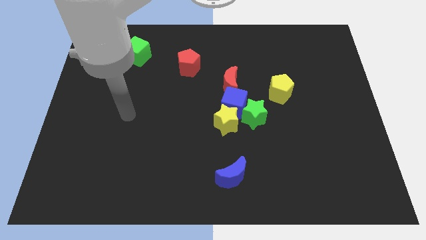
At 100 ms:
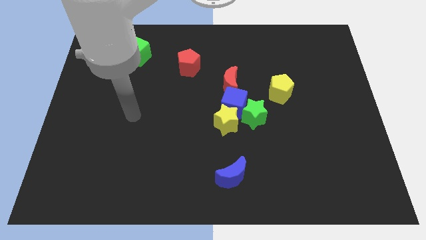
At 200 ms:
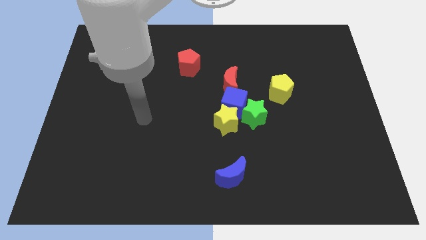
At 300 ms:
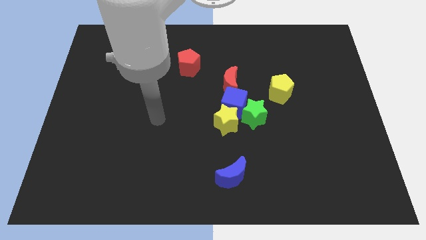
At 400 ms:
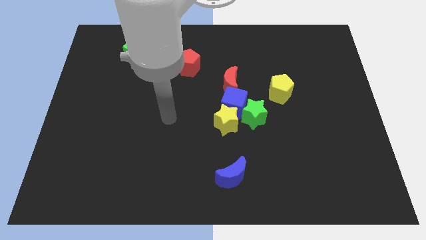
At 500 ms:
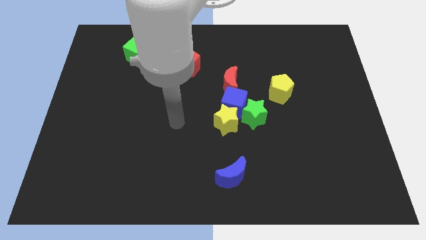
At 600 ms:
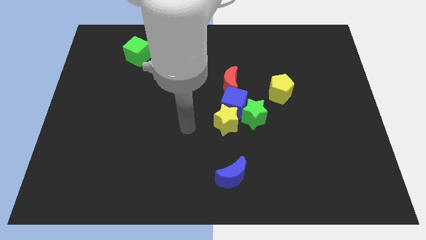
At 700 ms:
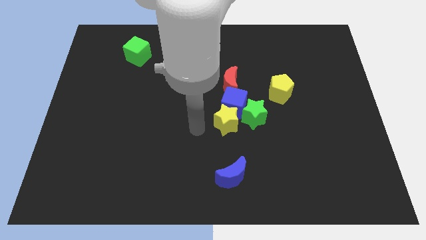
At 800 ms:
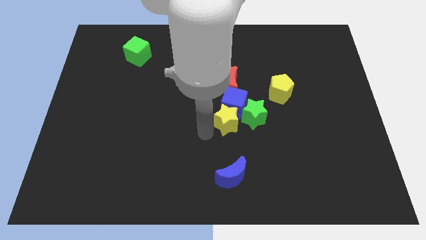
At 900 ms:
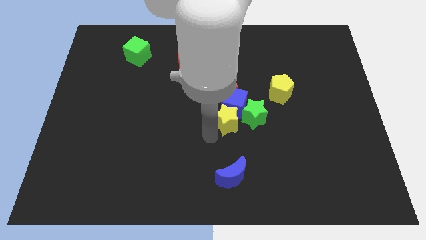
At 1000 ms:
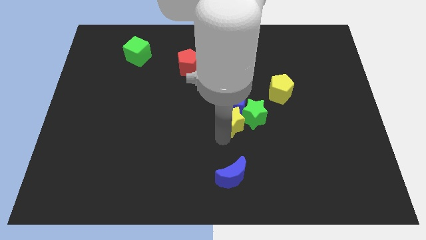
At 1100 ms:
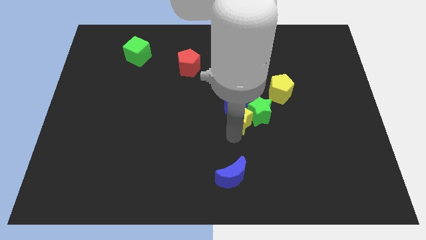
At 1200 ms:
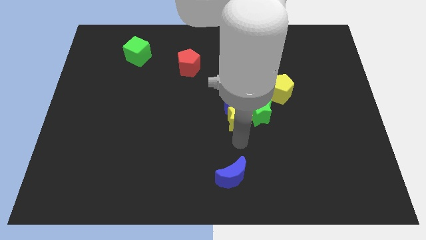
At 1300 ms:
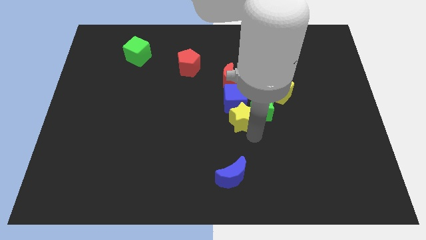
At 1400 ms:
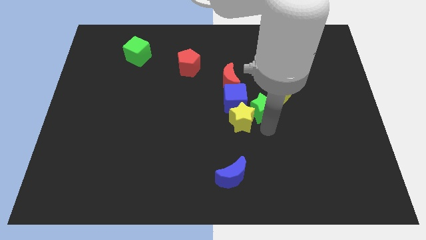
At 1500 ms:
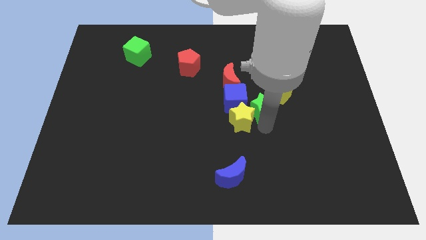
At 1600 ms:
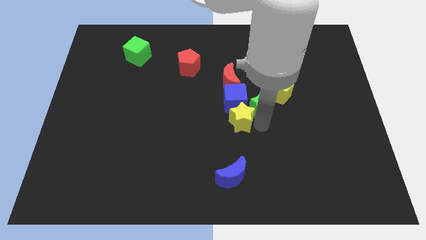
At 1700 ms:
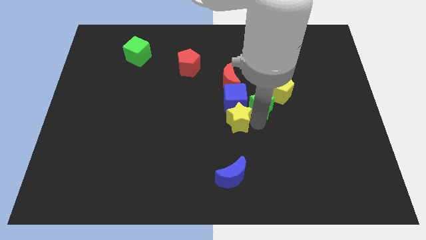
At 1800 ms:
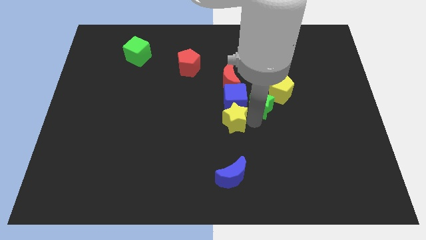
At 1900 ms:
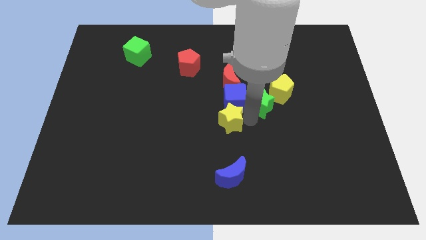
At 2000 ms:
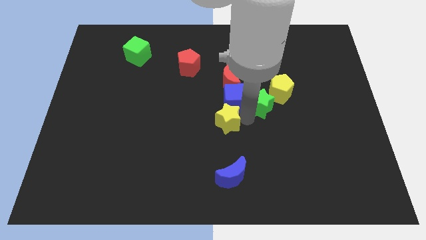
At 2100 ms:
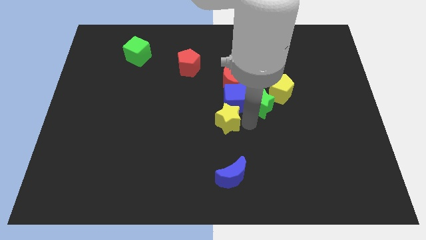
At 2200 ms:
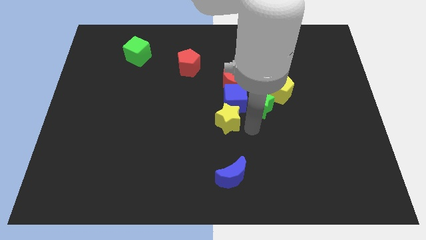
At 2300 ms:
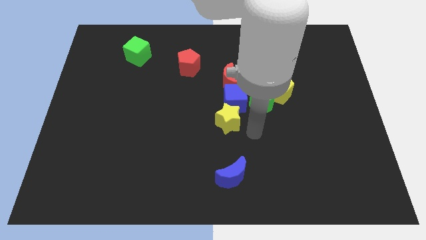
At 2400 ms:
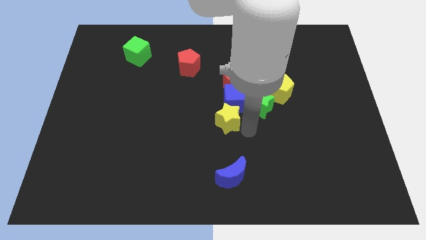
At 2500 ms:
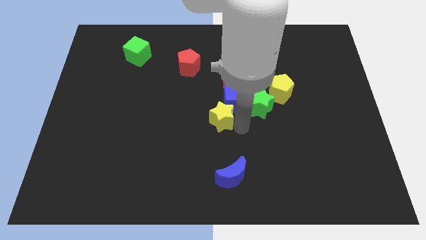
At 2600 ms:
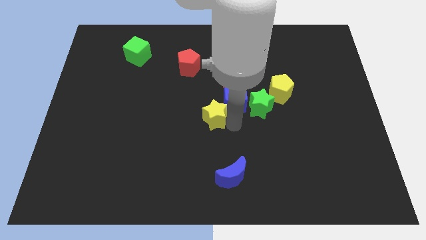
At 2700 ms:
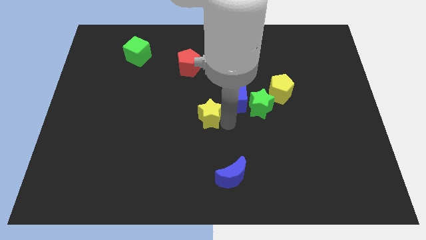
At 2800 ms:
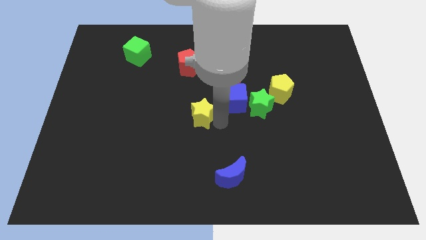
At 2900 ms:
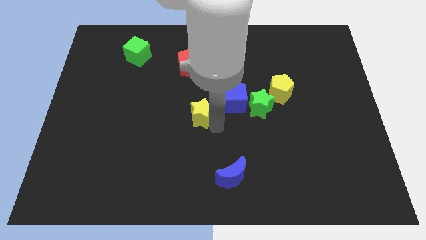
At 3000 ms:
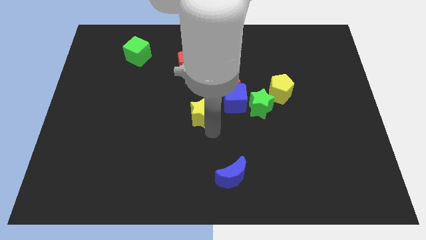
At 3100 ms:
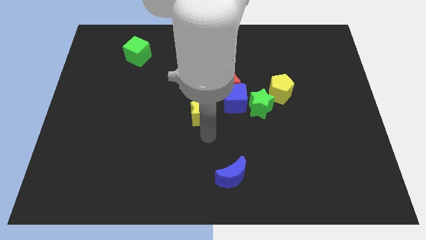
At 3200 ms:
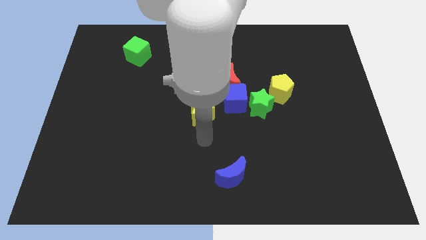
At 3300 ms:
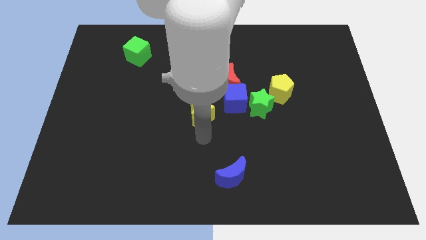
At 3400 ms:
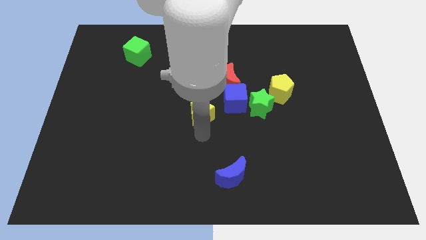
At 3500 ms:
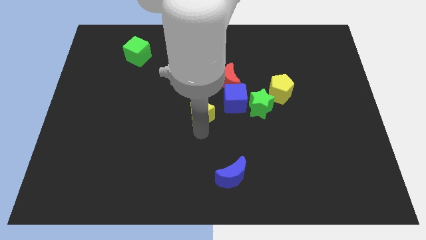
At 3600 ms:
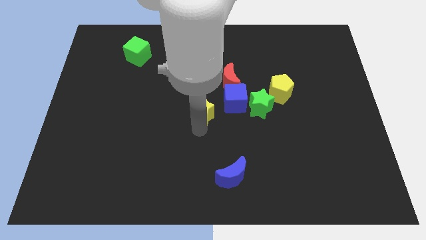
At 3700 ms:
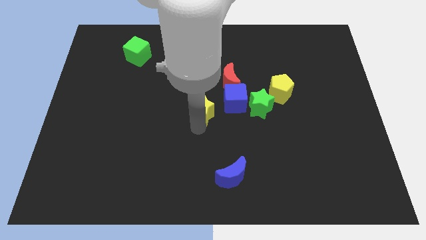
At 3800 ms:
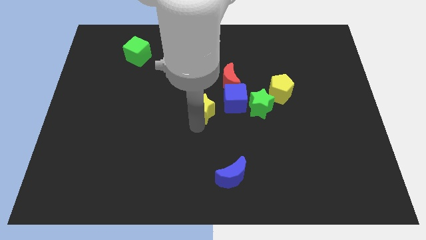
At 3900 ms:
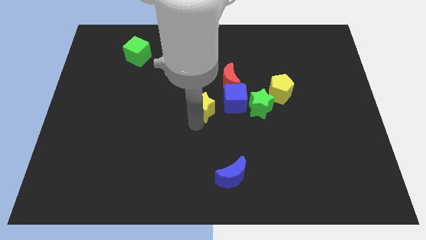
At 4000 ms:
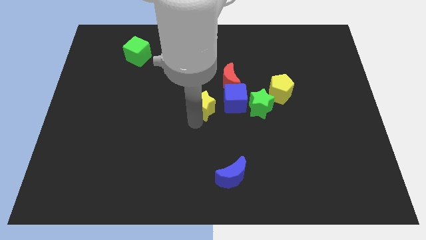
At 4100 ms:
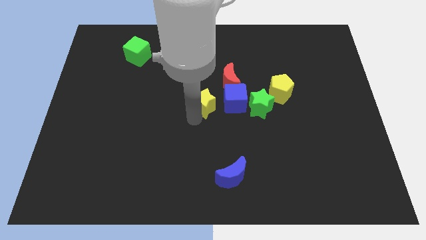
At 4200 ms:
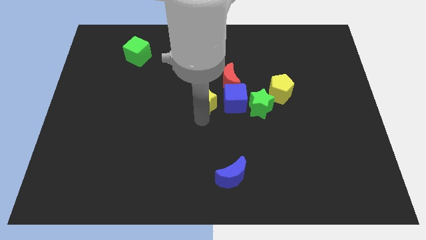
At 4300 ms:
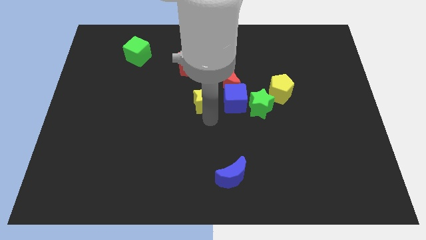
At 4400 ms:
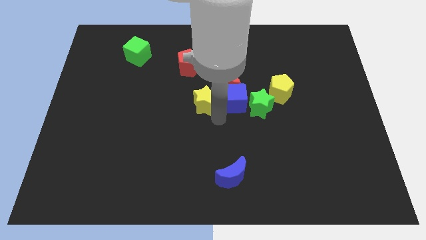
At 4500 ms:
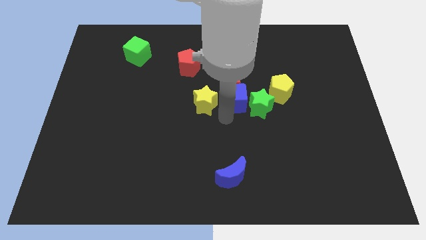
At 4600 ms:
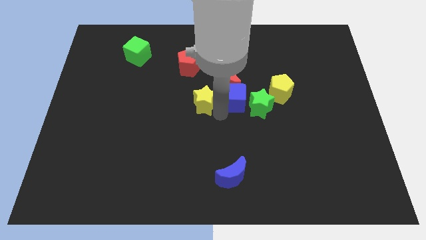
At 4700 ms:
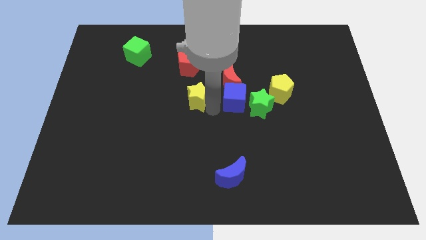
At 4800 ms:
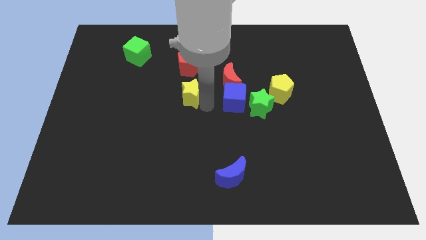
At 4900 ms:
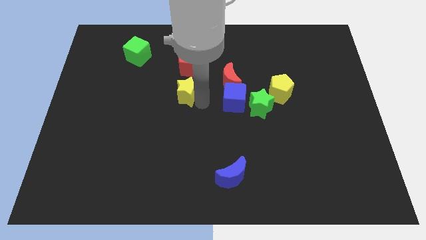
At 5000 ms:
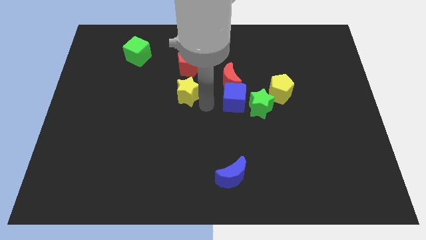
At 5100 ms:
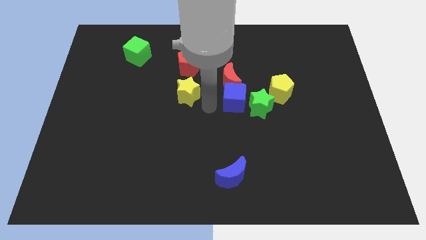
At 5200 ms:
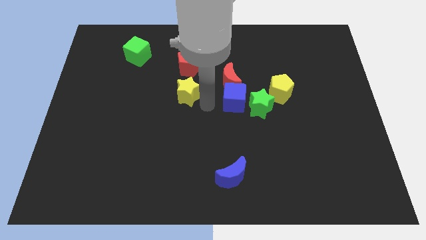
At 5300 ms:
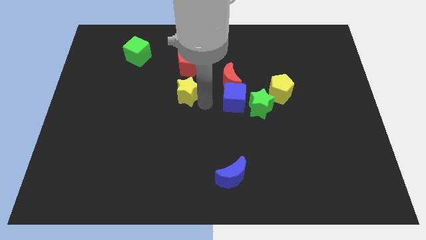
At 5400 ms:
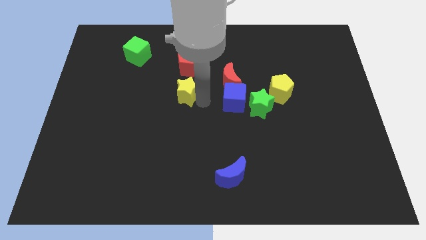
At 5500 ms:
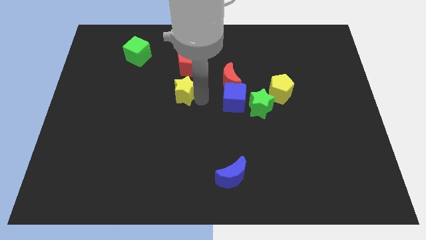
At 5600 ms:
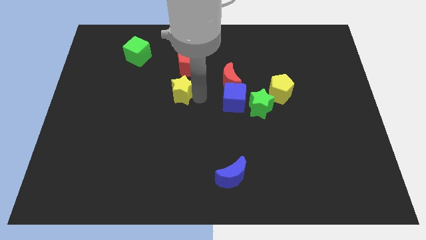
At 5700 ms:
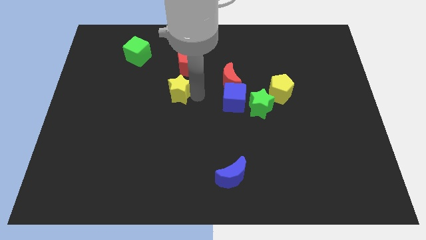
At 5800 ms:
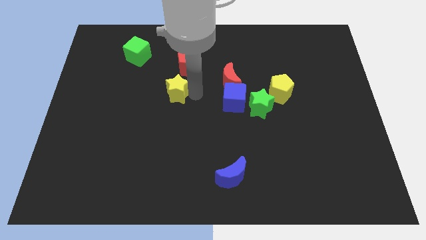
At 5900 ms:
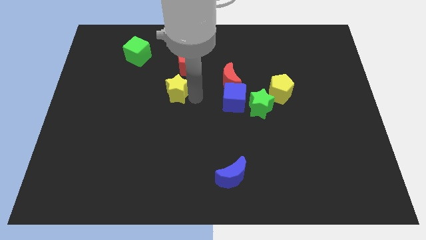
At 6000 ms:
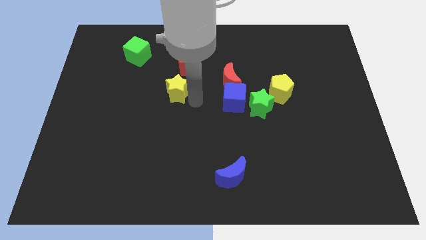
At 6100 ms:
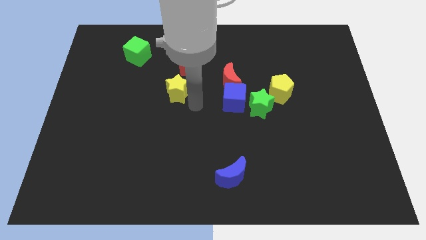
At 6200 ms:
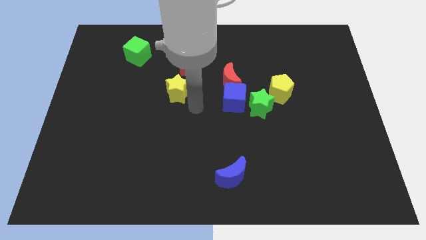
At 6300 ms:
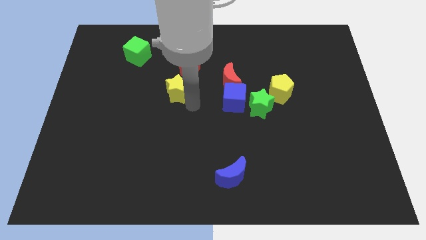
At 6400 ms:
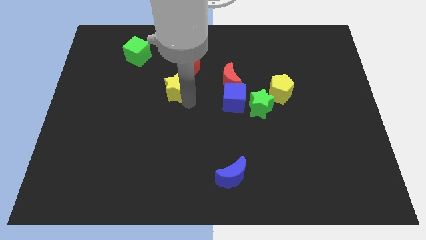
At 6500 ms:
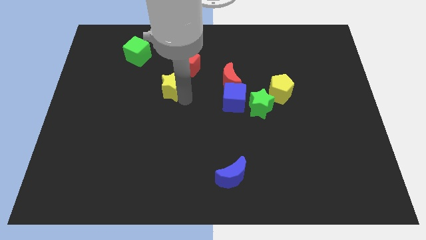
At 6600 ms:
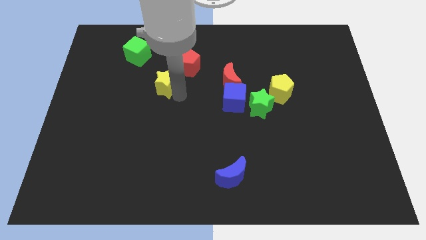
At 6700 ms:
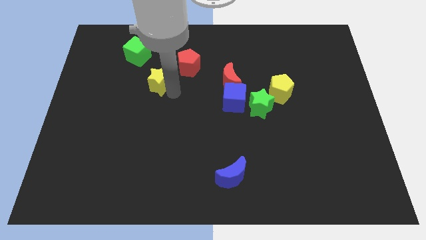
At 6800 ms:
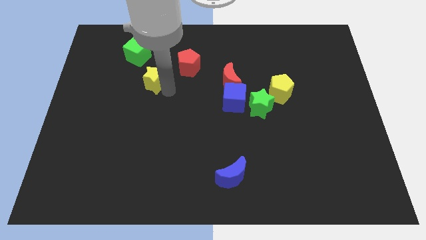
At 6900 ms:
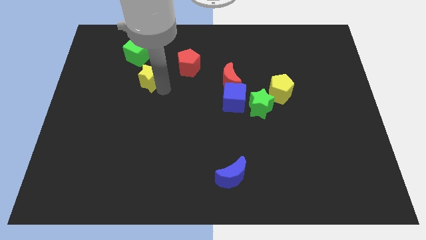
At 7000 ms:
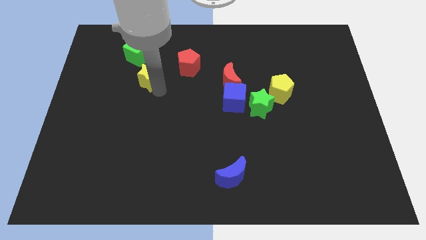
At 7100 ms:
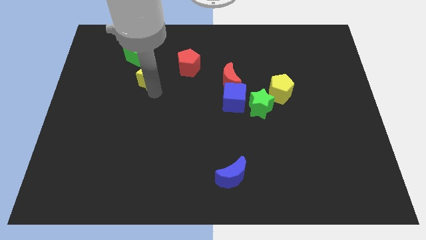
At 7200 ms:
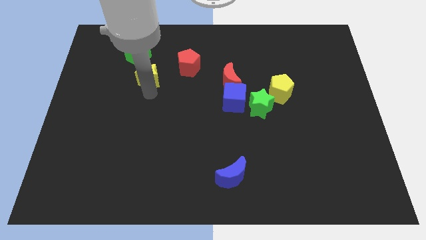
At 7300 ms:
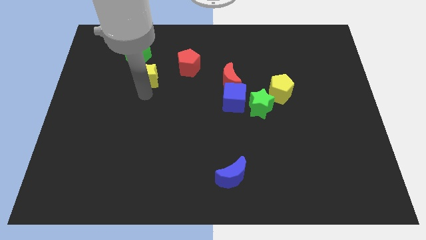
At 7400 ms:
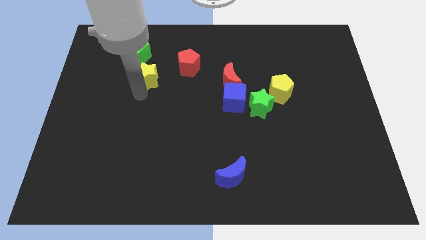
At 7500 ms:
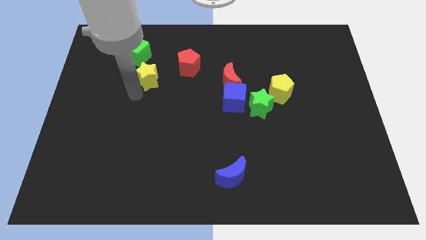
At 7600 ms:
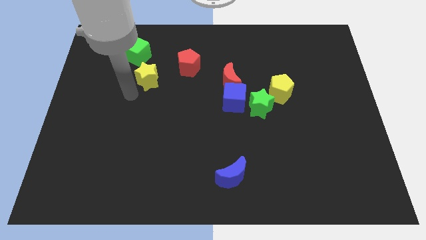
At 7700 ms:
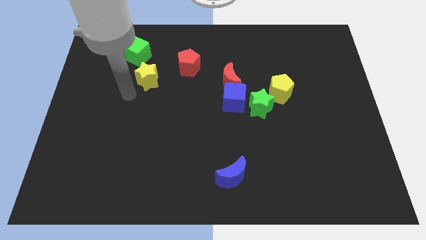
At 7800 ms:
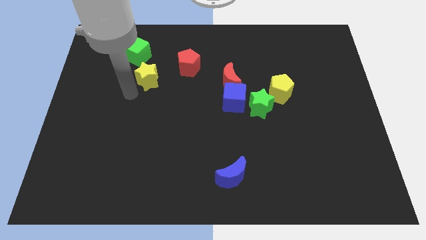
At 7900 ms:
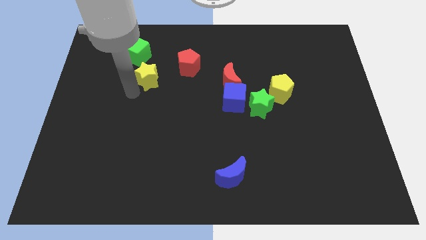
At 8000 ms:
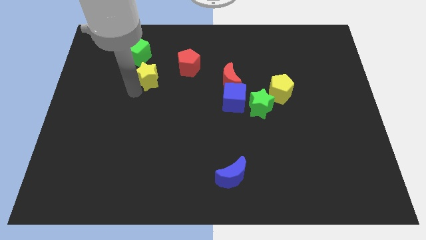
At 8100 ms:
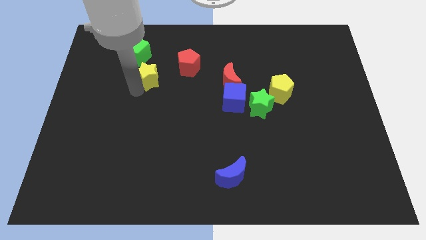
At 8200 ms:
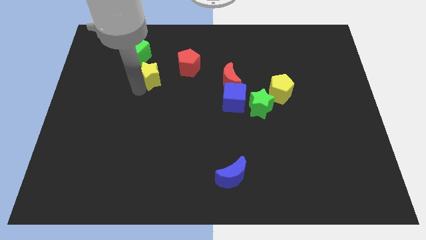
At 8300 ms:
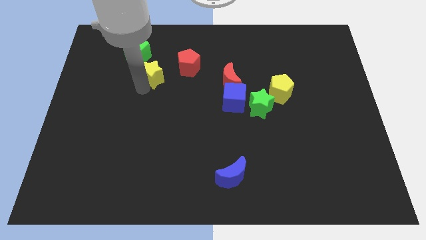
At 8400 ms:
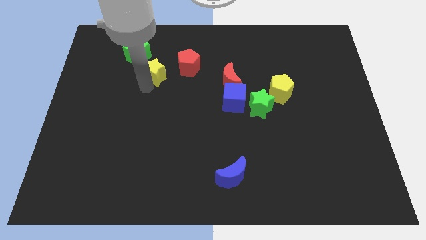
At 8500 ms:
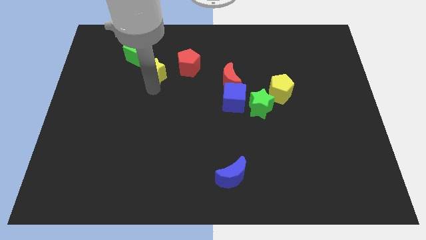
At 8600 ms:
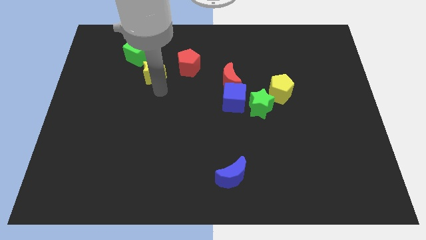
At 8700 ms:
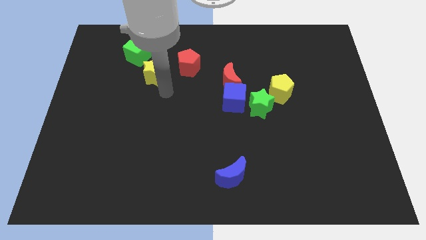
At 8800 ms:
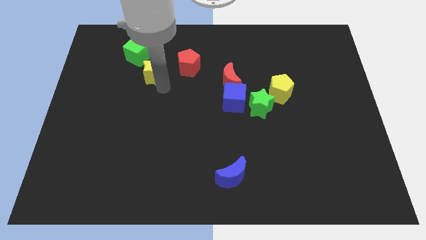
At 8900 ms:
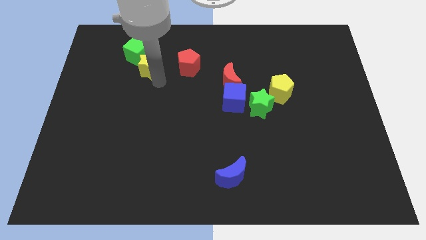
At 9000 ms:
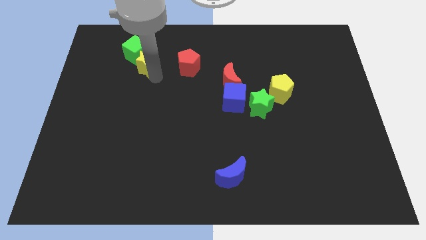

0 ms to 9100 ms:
put the yellow star towards the green cube
